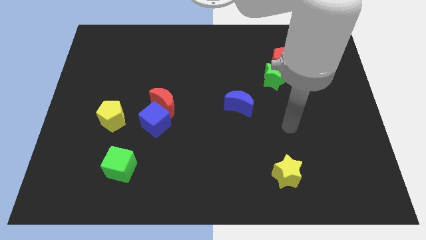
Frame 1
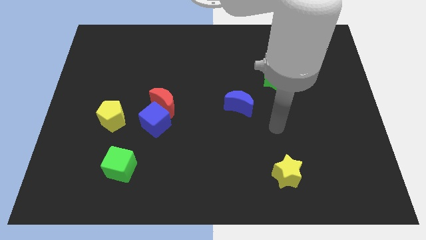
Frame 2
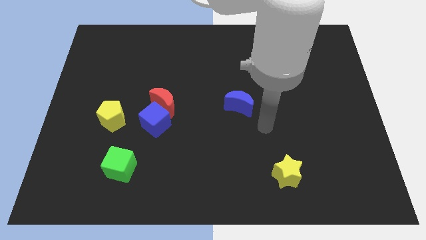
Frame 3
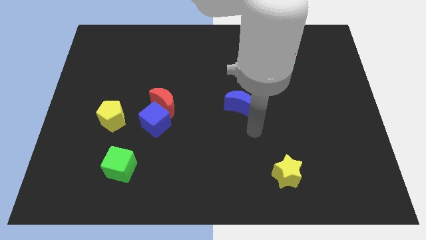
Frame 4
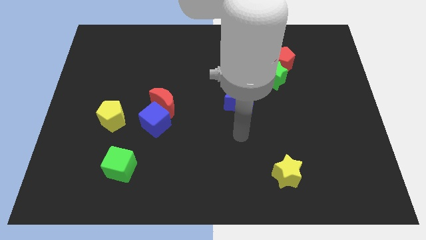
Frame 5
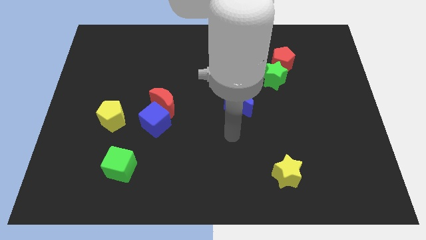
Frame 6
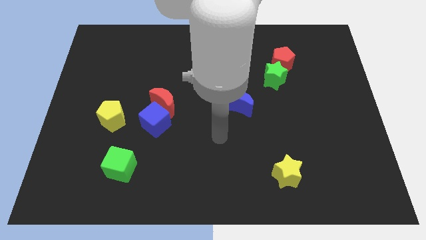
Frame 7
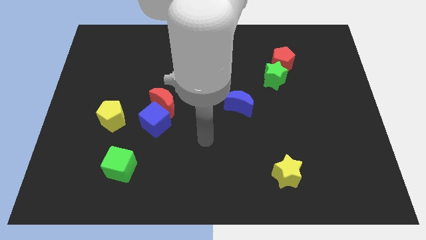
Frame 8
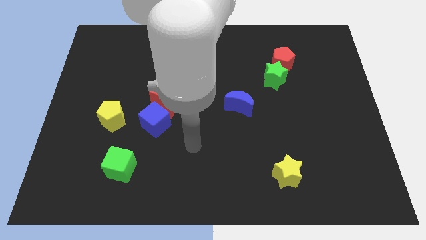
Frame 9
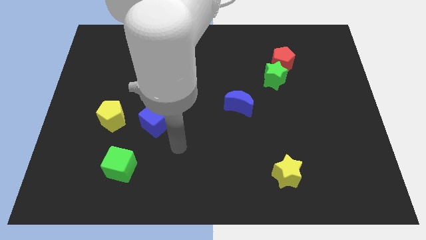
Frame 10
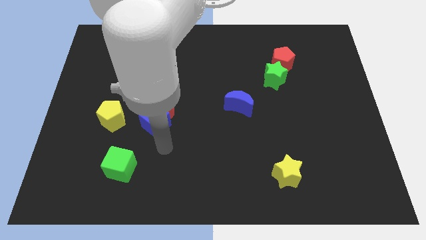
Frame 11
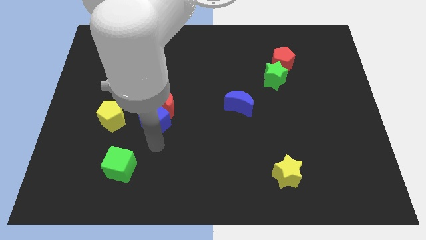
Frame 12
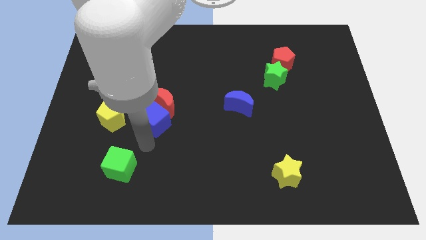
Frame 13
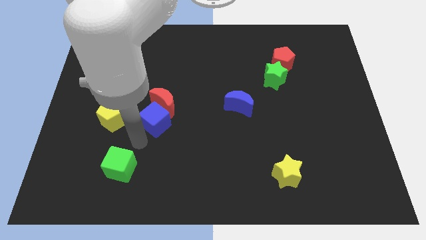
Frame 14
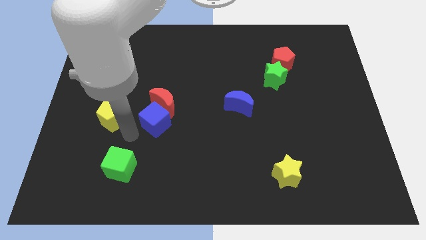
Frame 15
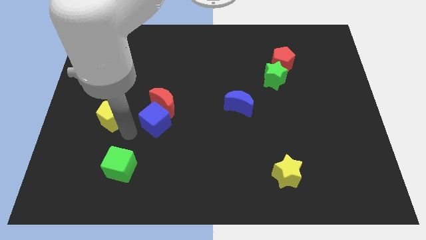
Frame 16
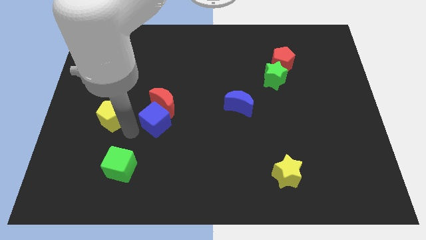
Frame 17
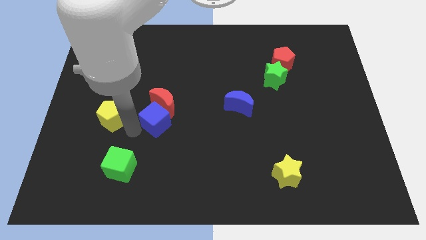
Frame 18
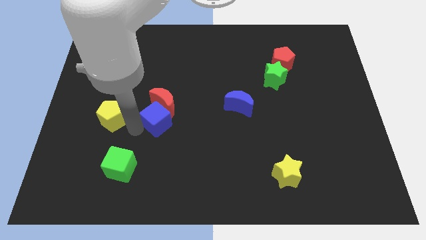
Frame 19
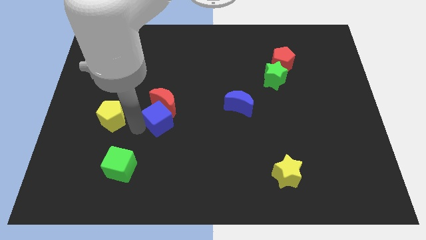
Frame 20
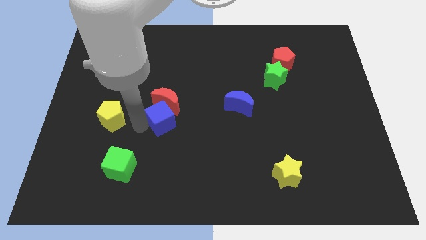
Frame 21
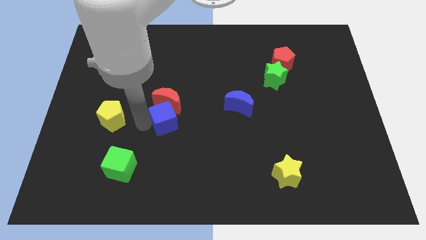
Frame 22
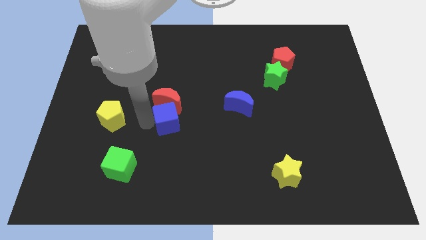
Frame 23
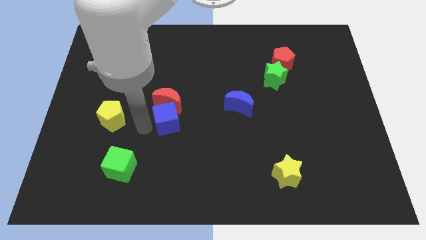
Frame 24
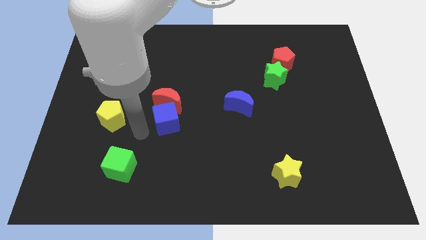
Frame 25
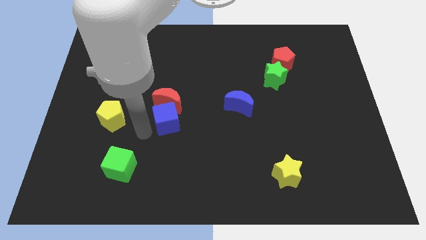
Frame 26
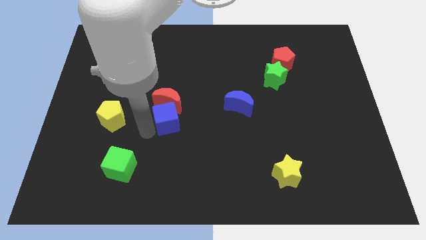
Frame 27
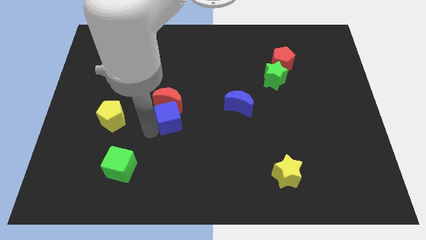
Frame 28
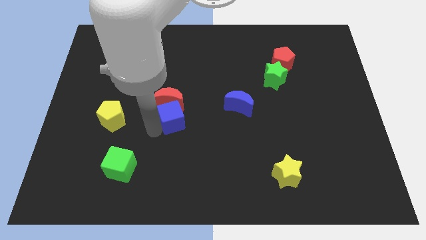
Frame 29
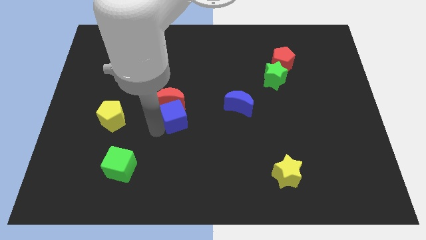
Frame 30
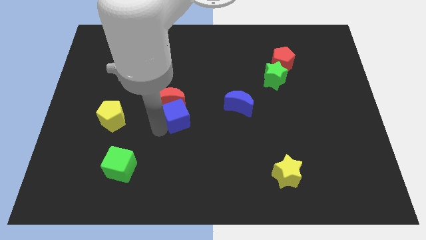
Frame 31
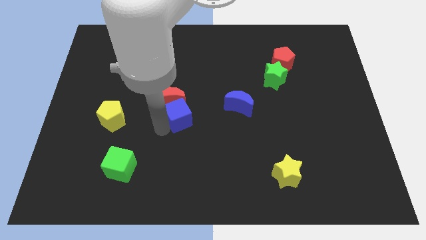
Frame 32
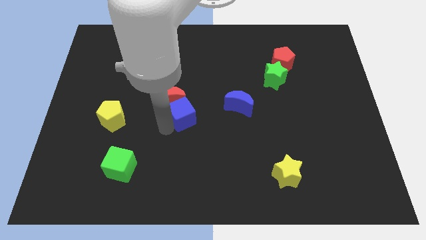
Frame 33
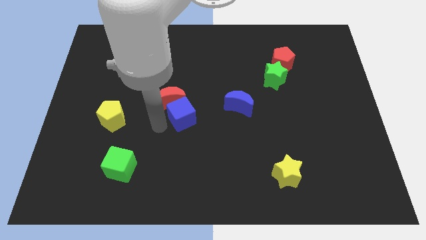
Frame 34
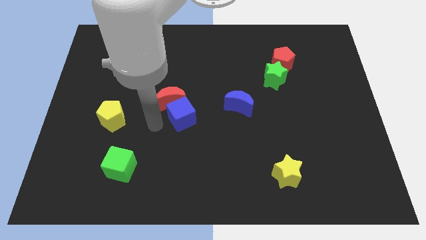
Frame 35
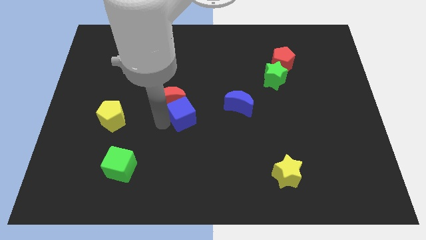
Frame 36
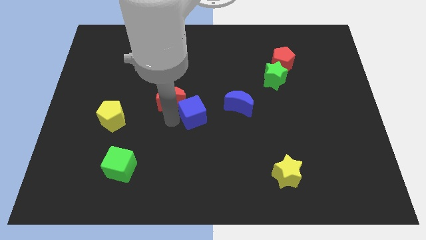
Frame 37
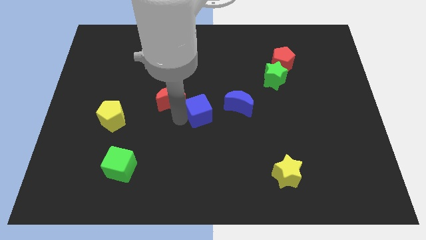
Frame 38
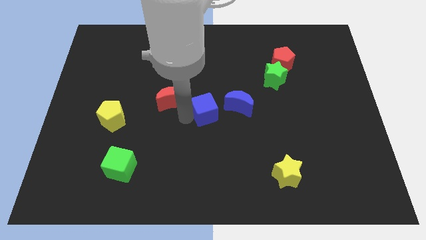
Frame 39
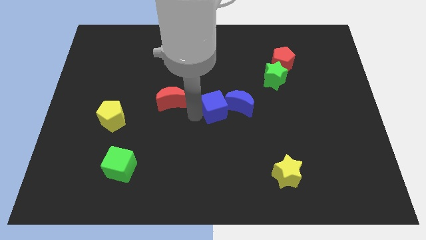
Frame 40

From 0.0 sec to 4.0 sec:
put the blue cube to the blue moon

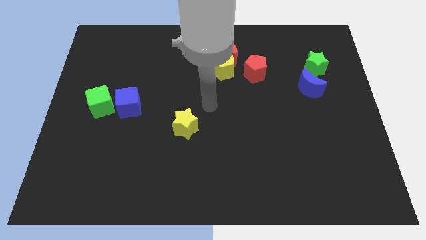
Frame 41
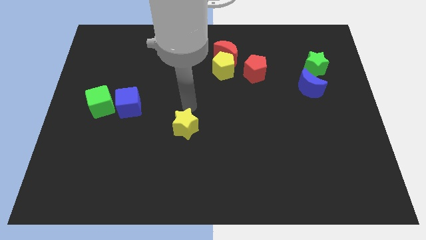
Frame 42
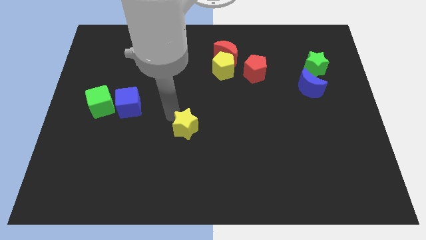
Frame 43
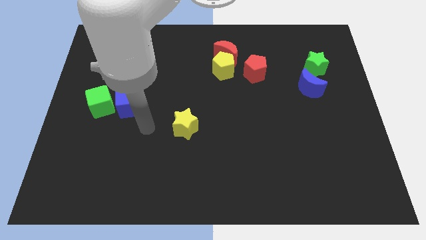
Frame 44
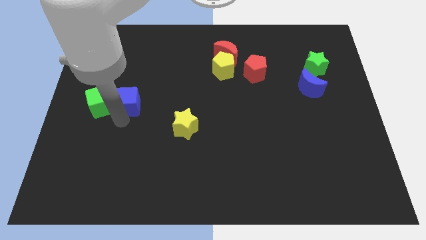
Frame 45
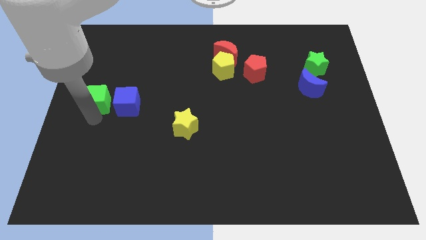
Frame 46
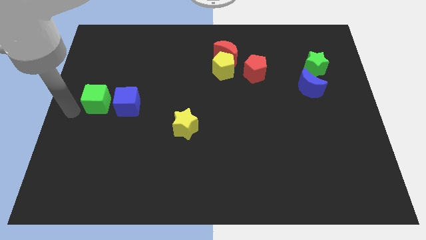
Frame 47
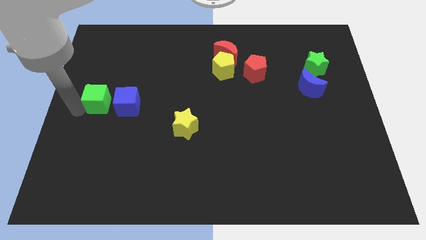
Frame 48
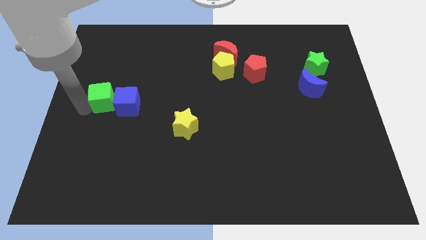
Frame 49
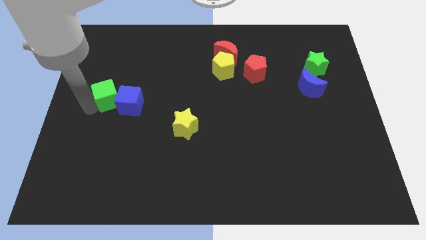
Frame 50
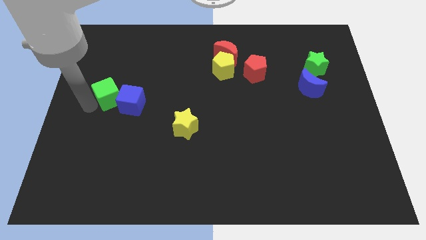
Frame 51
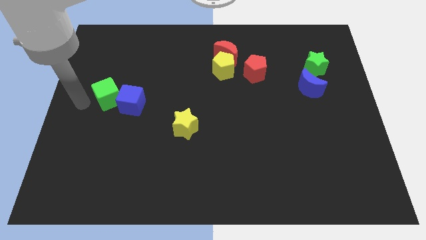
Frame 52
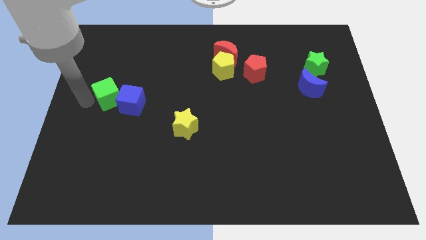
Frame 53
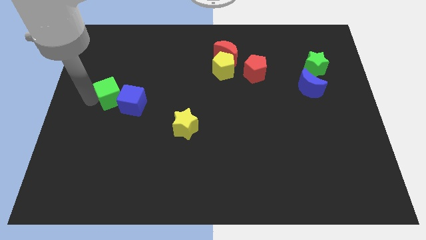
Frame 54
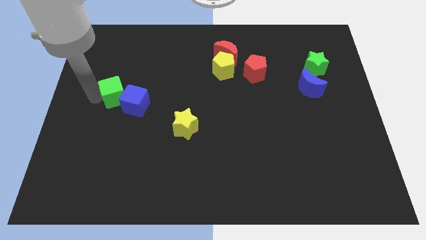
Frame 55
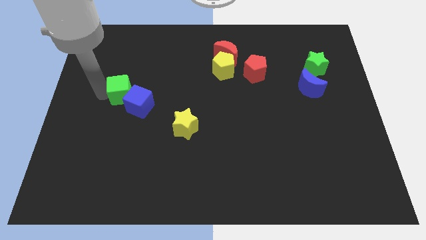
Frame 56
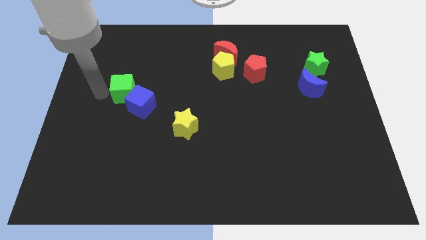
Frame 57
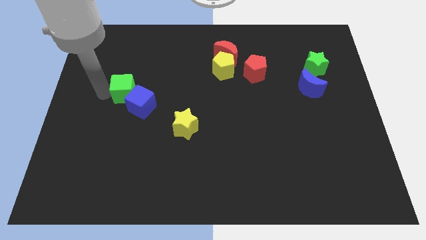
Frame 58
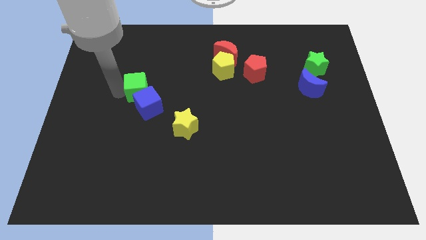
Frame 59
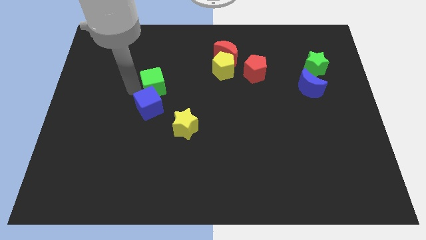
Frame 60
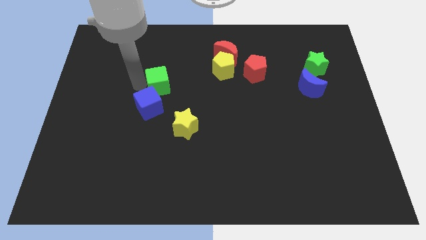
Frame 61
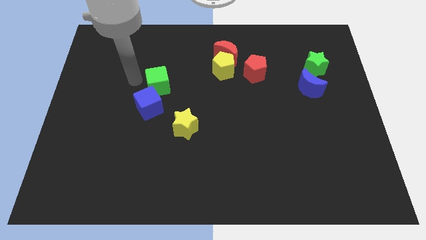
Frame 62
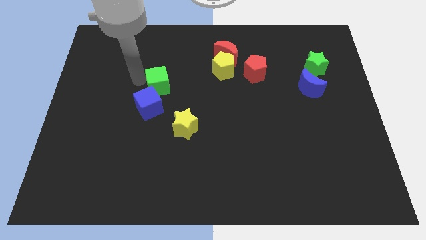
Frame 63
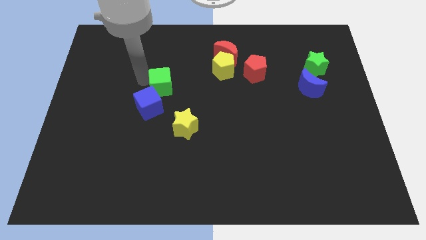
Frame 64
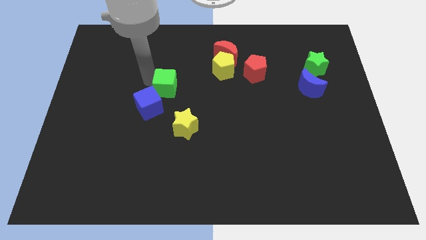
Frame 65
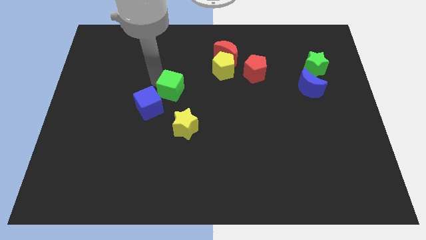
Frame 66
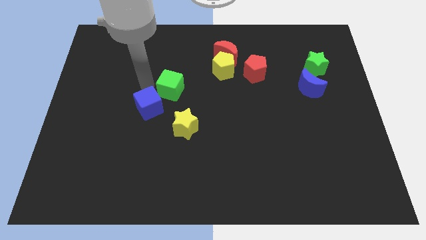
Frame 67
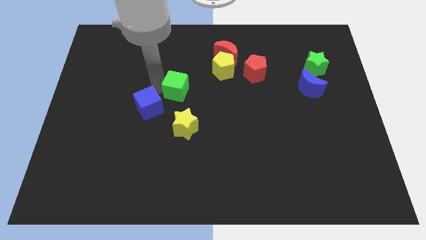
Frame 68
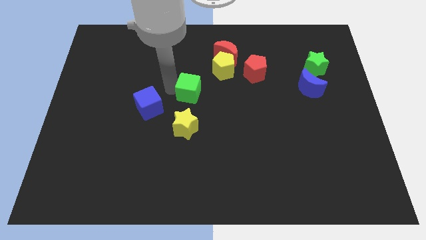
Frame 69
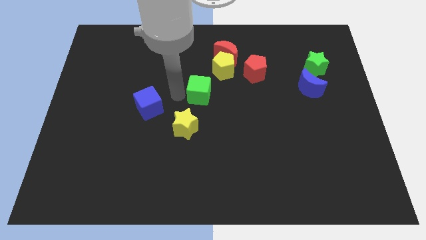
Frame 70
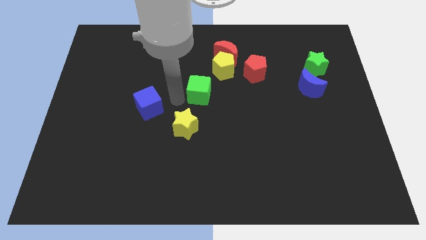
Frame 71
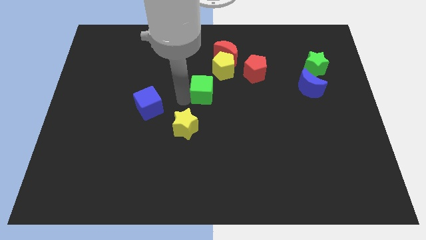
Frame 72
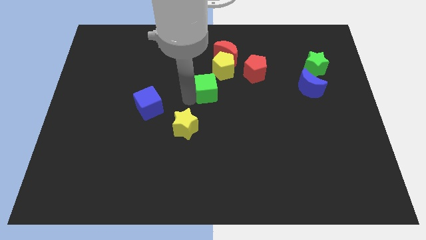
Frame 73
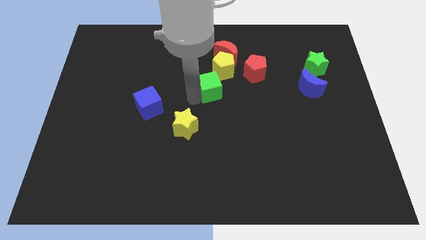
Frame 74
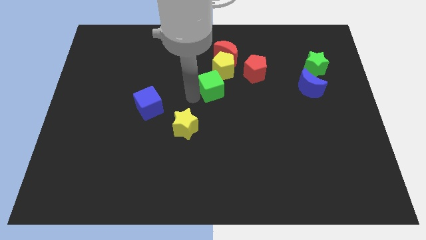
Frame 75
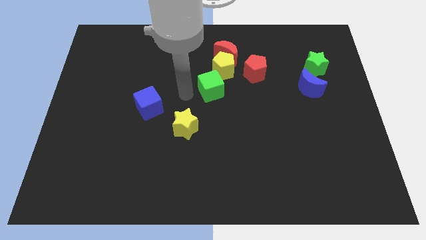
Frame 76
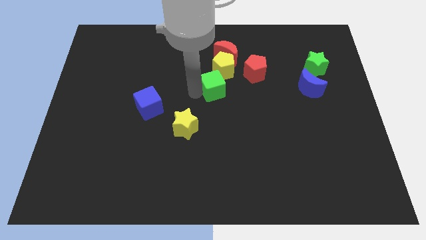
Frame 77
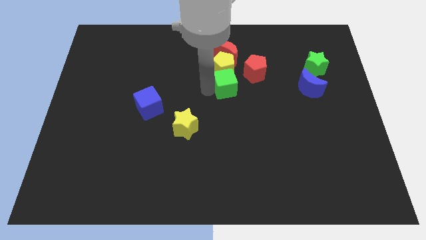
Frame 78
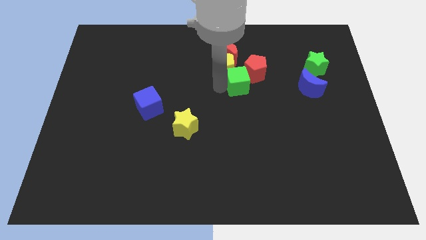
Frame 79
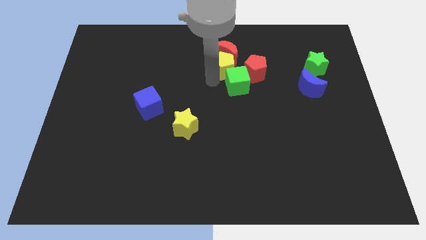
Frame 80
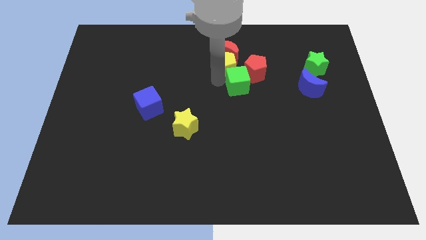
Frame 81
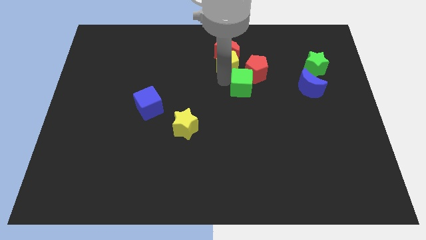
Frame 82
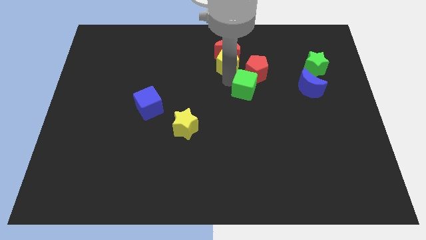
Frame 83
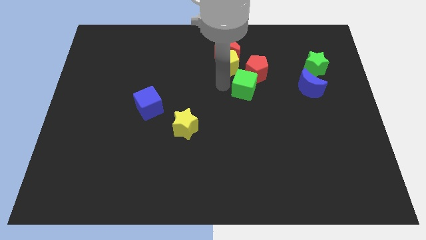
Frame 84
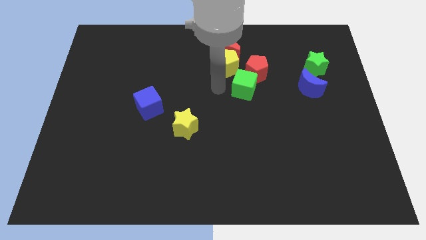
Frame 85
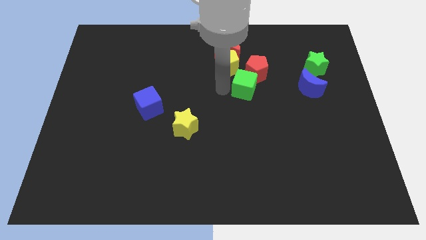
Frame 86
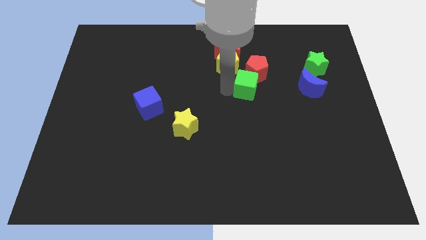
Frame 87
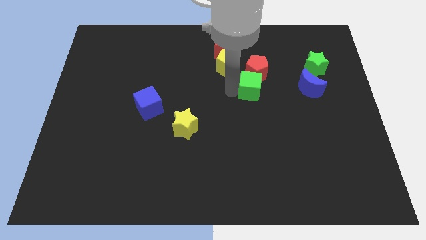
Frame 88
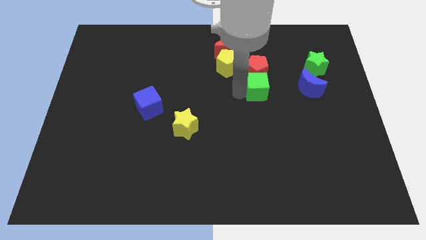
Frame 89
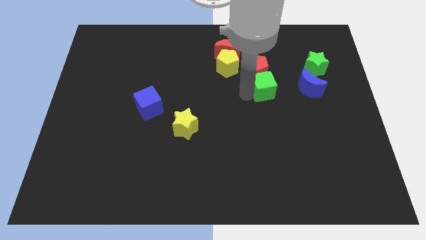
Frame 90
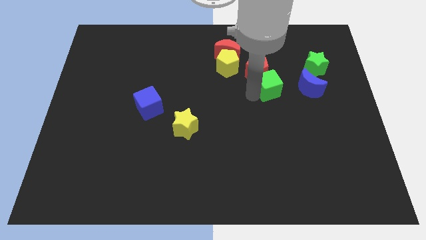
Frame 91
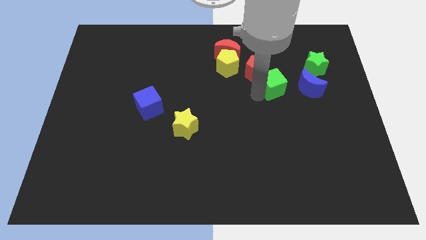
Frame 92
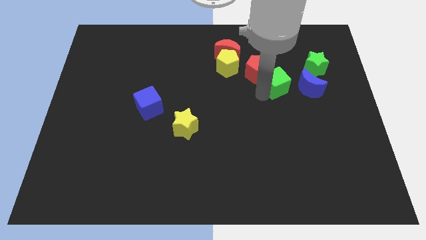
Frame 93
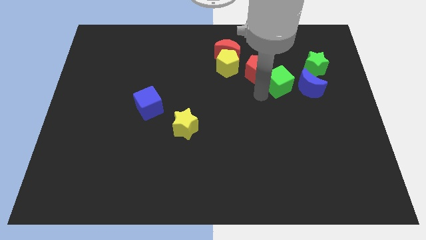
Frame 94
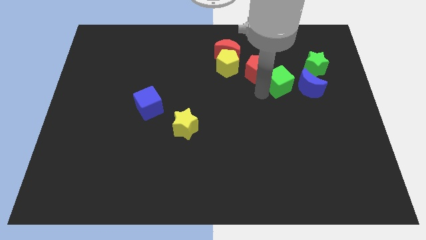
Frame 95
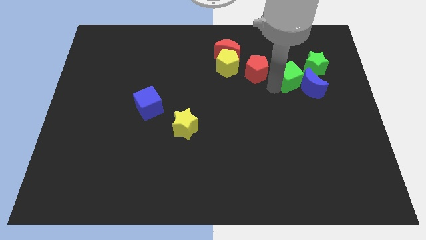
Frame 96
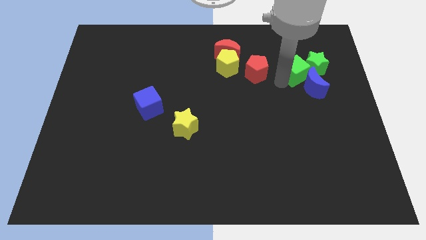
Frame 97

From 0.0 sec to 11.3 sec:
move the green cube to the green star
